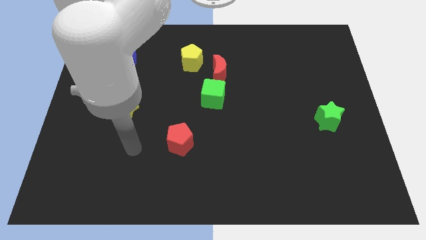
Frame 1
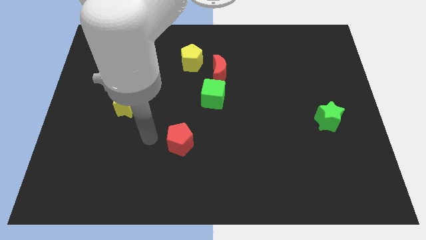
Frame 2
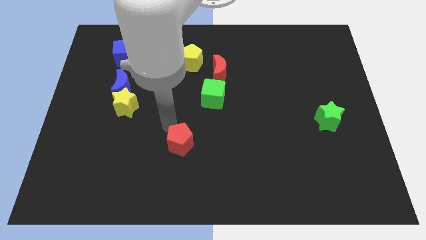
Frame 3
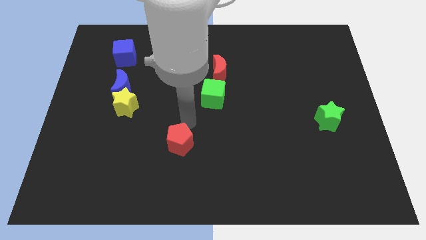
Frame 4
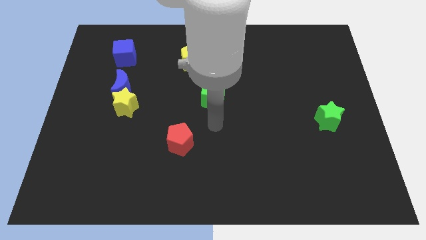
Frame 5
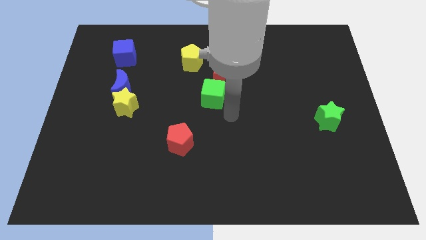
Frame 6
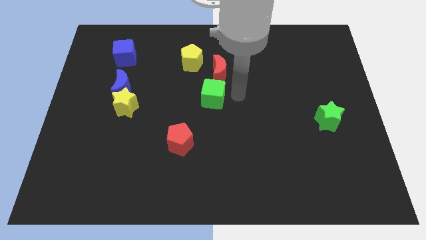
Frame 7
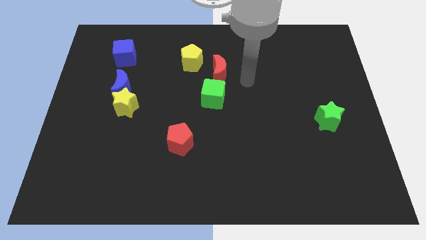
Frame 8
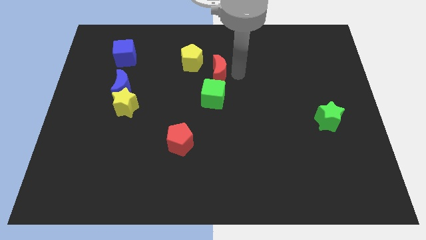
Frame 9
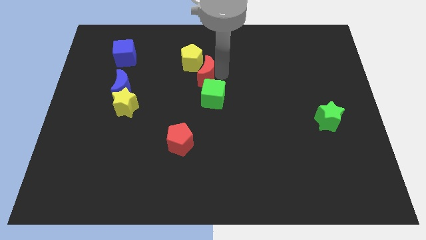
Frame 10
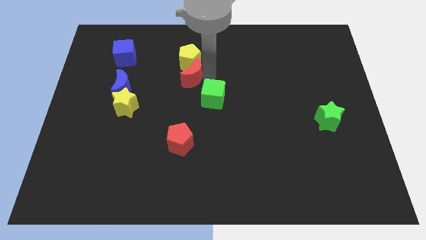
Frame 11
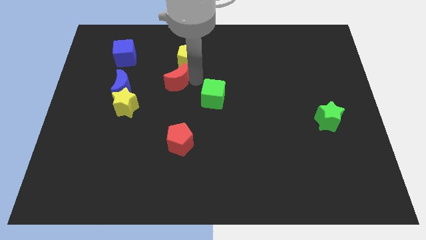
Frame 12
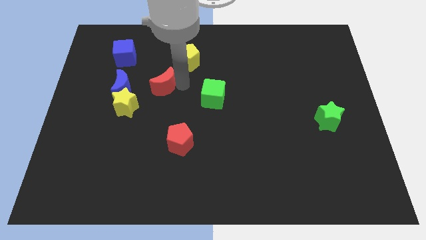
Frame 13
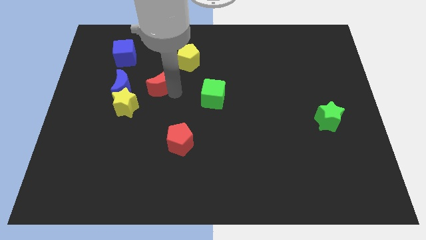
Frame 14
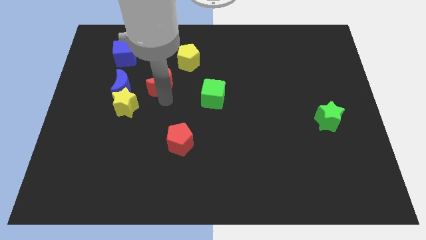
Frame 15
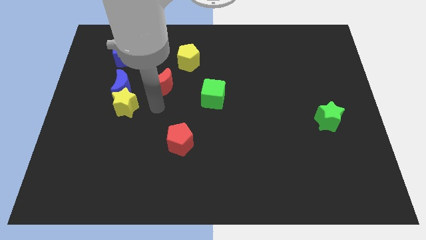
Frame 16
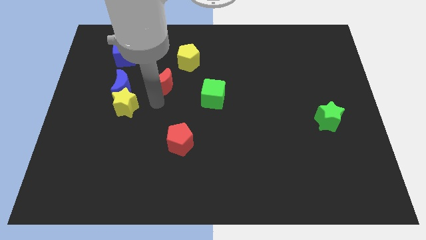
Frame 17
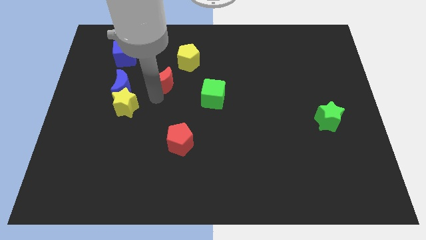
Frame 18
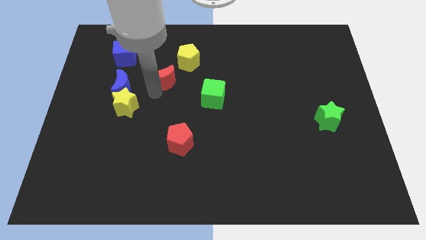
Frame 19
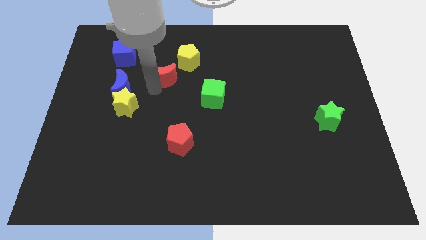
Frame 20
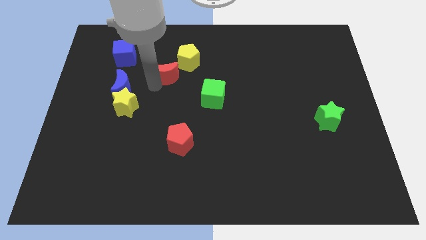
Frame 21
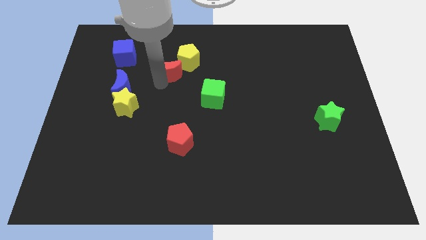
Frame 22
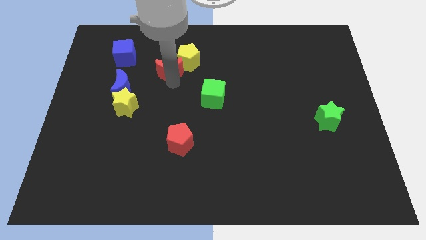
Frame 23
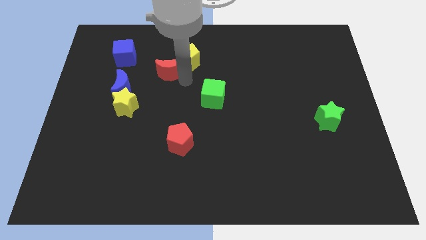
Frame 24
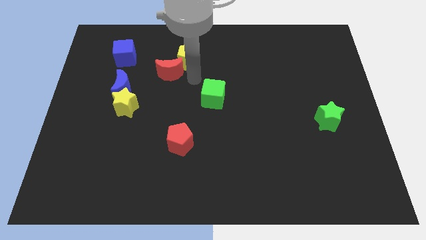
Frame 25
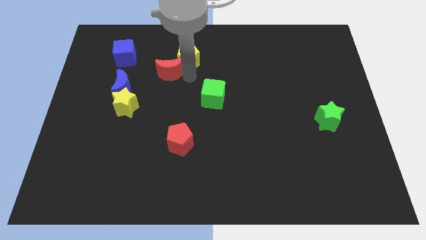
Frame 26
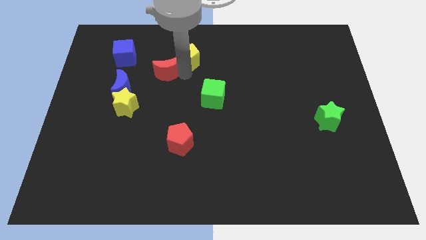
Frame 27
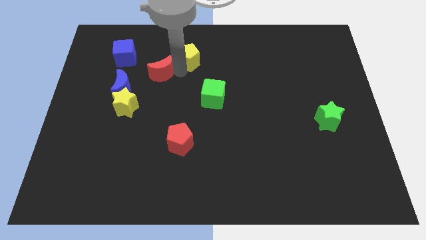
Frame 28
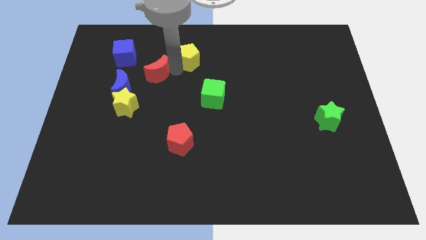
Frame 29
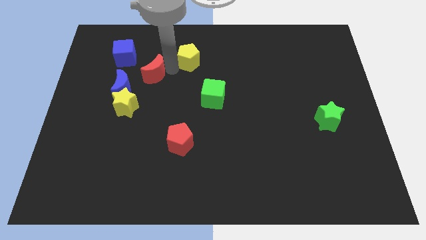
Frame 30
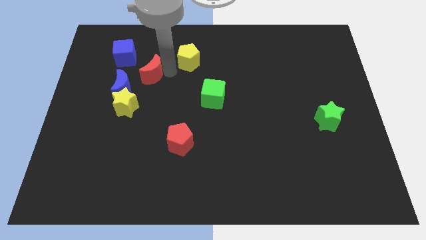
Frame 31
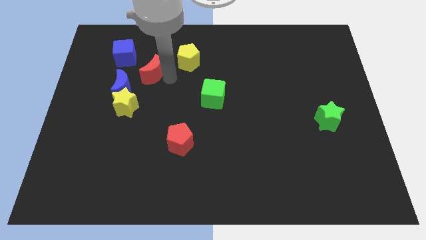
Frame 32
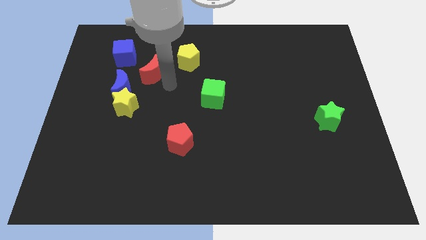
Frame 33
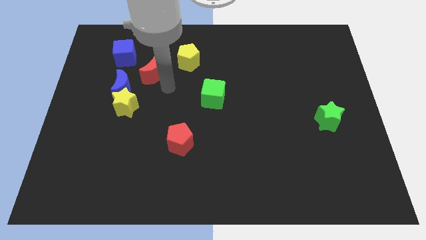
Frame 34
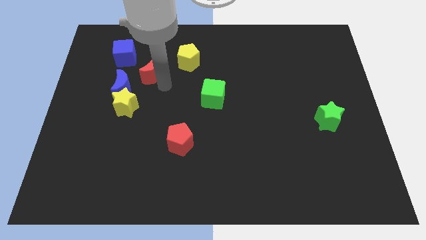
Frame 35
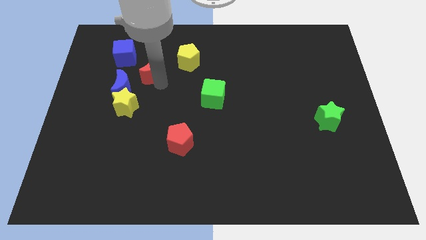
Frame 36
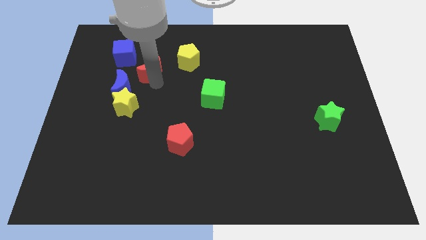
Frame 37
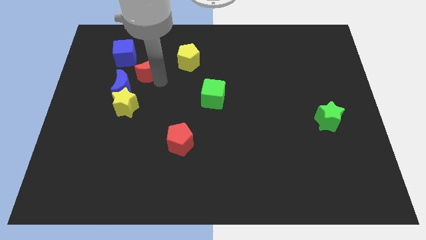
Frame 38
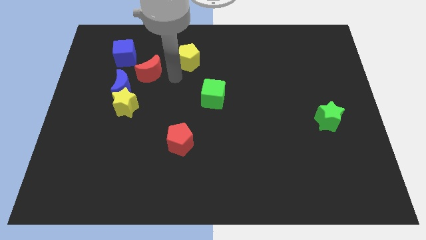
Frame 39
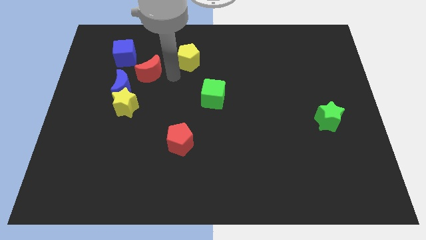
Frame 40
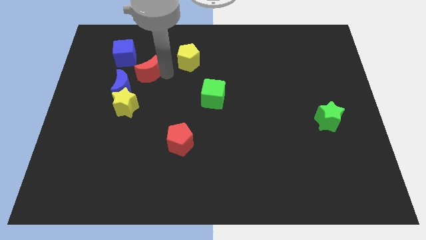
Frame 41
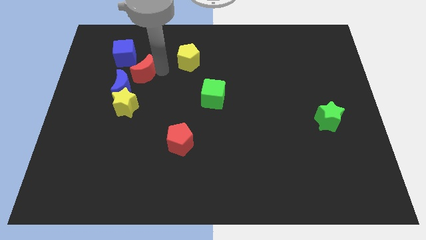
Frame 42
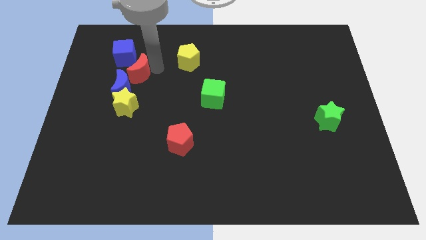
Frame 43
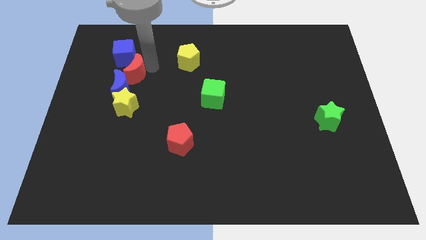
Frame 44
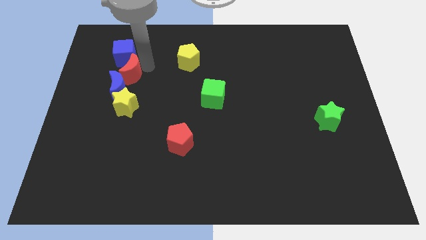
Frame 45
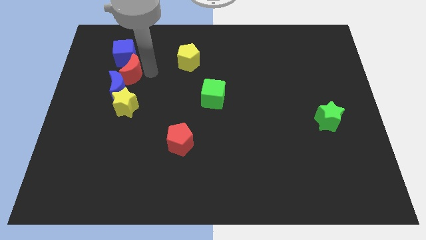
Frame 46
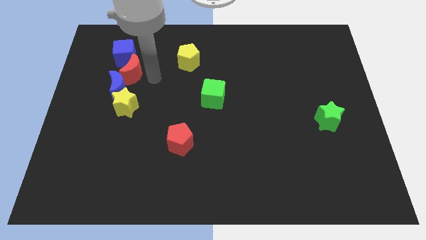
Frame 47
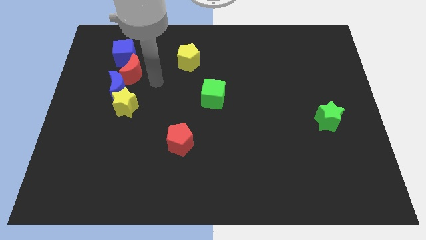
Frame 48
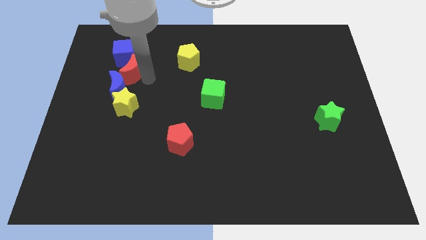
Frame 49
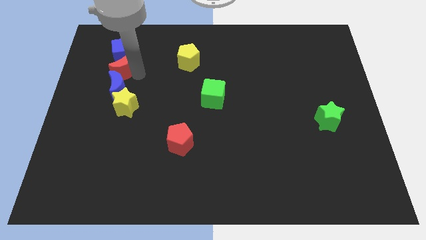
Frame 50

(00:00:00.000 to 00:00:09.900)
put the red moon to the bottom left side of the blue cube

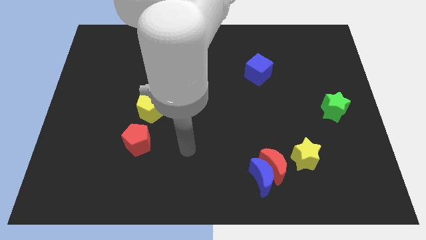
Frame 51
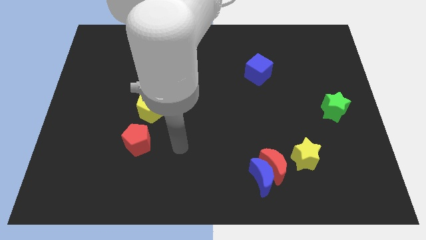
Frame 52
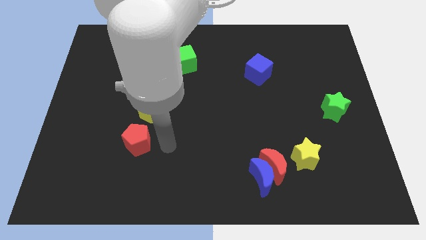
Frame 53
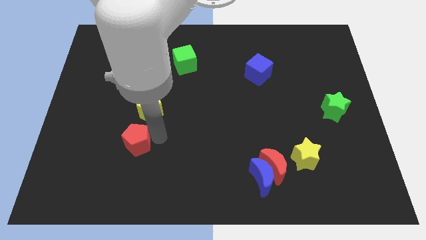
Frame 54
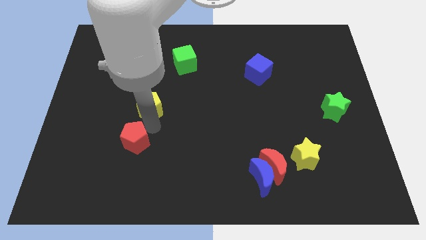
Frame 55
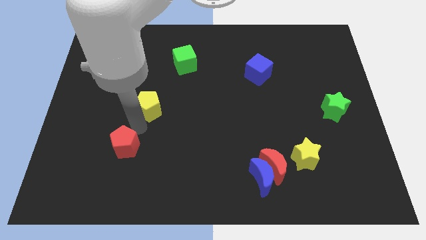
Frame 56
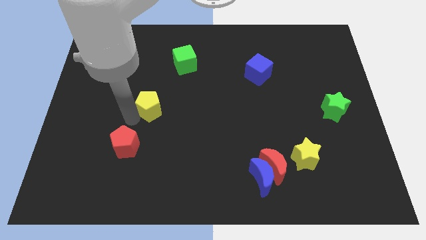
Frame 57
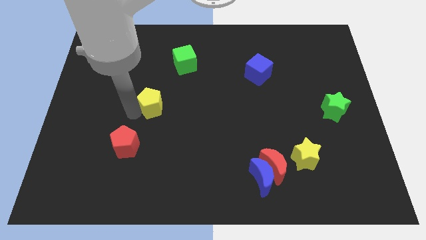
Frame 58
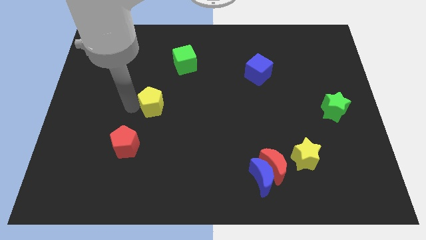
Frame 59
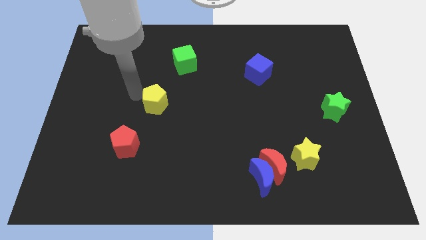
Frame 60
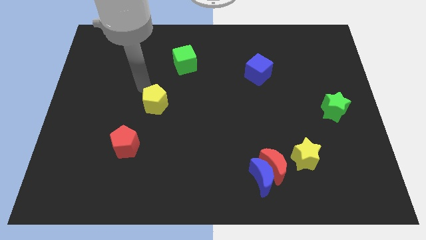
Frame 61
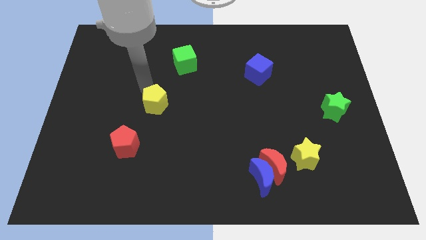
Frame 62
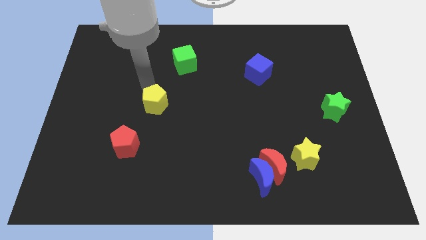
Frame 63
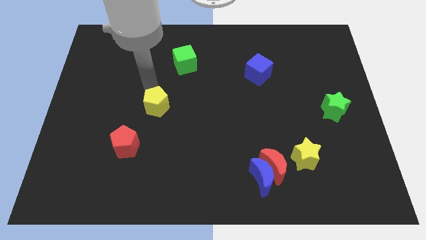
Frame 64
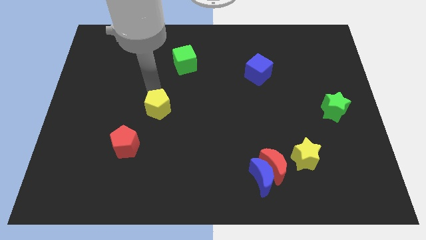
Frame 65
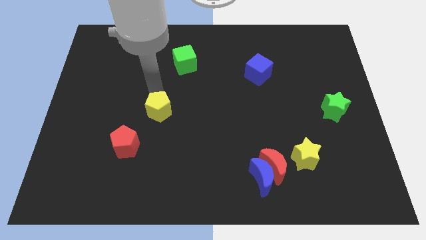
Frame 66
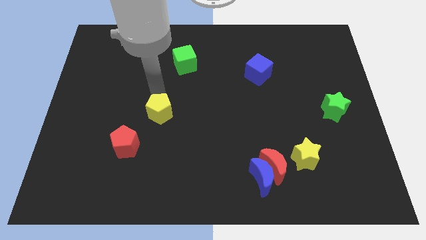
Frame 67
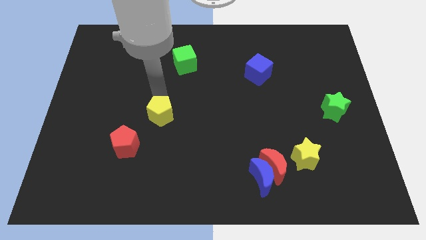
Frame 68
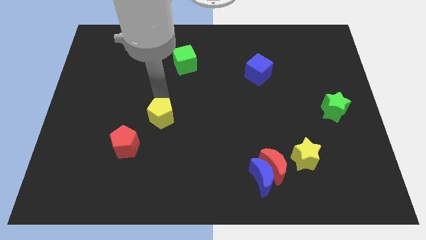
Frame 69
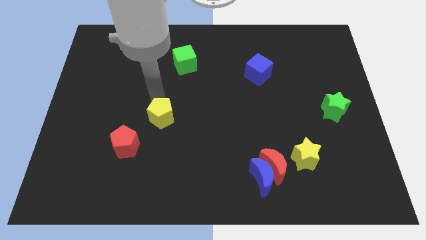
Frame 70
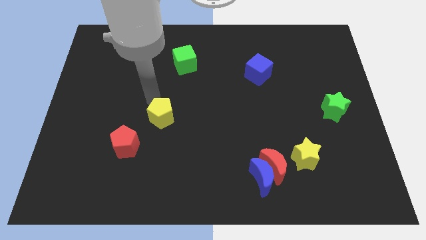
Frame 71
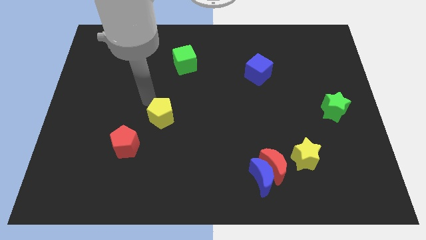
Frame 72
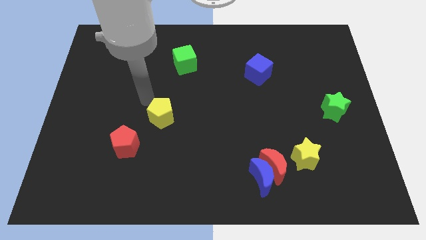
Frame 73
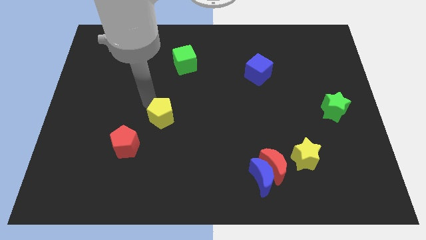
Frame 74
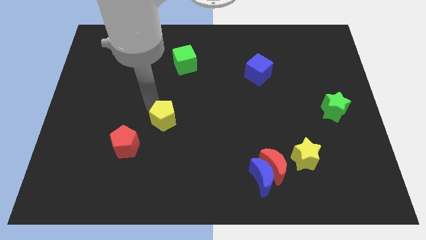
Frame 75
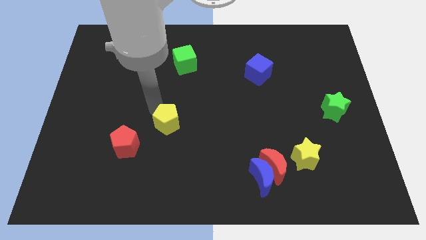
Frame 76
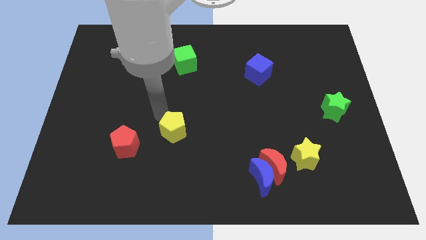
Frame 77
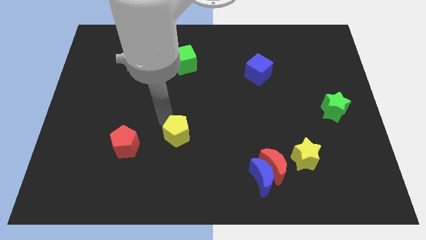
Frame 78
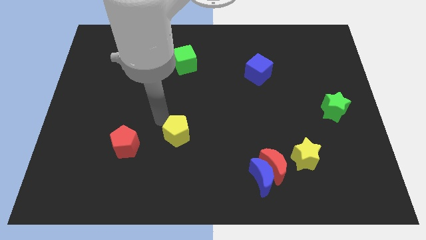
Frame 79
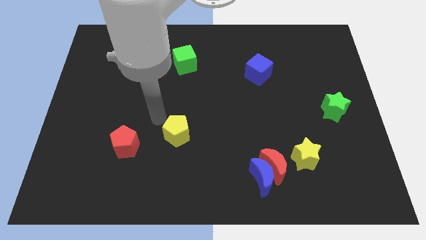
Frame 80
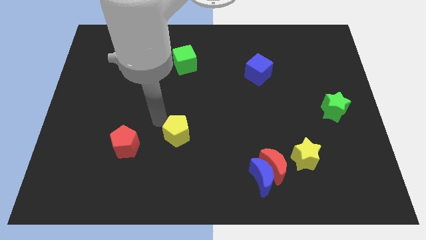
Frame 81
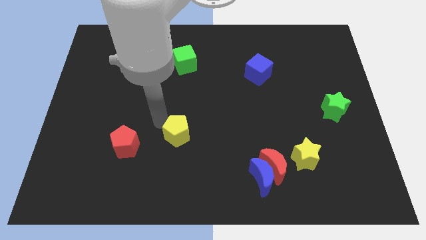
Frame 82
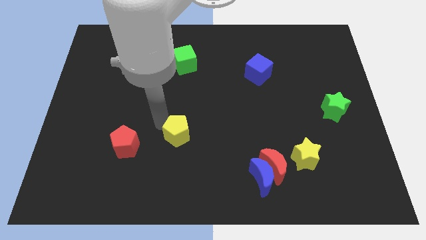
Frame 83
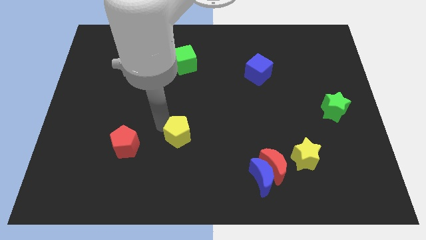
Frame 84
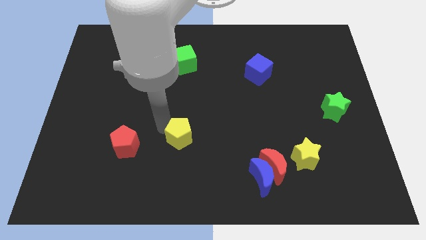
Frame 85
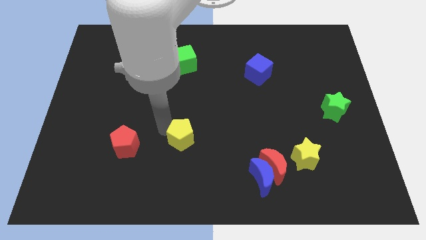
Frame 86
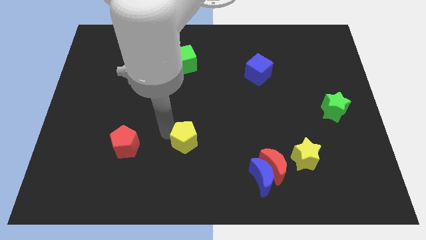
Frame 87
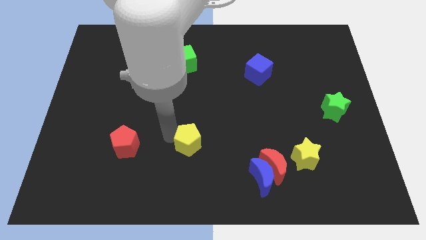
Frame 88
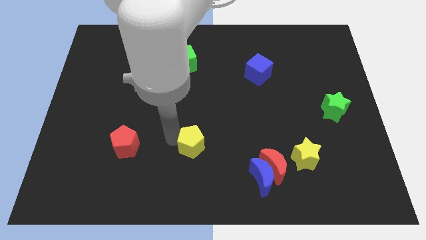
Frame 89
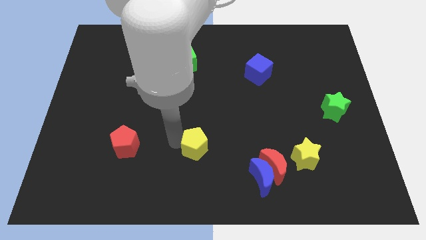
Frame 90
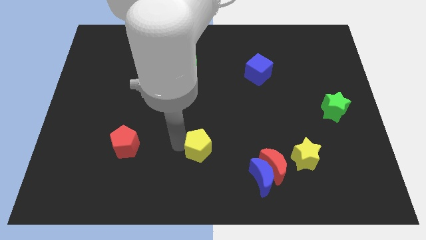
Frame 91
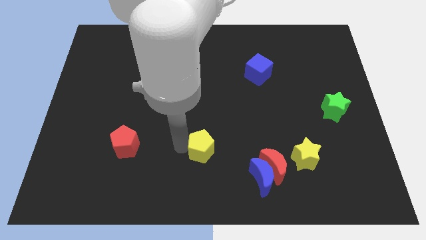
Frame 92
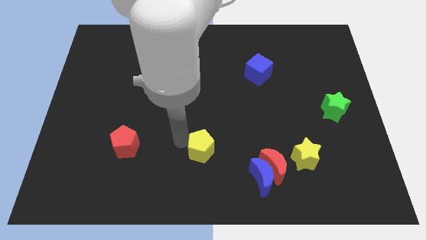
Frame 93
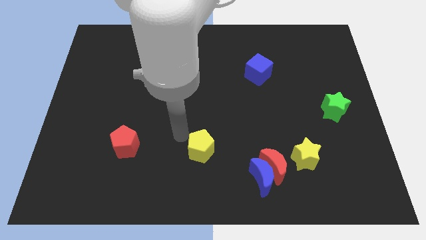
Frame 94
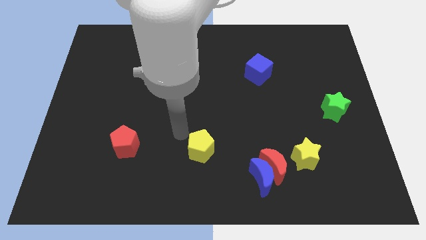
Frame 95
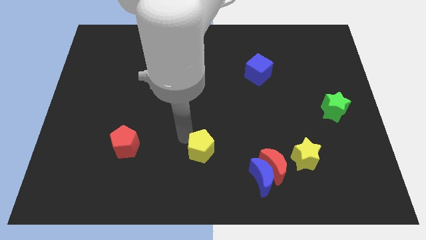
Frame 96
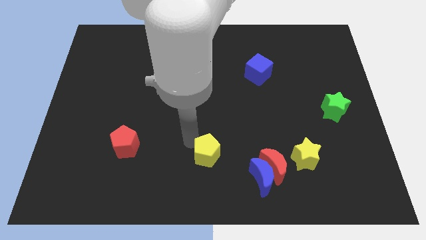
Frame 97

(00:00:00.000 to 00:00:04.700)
push the yellow pentagon to the left side of the red moon
